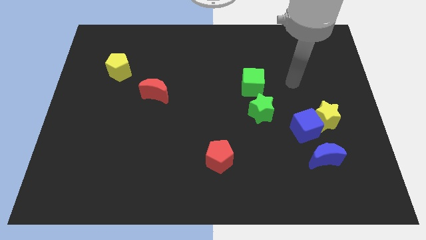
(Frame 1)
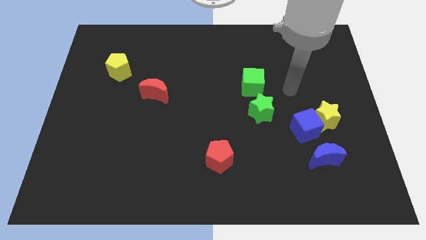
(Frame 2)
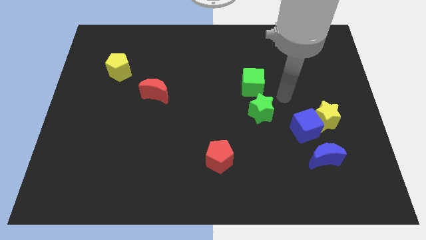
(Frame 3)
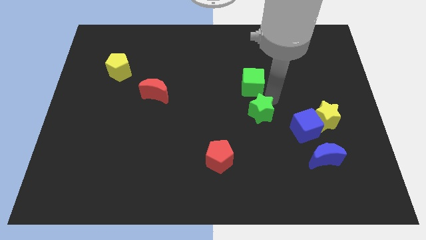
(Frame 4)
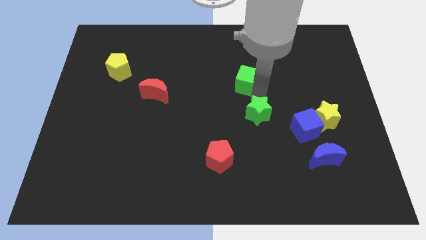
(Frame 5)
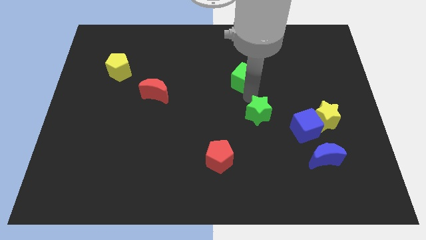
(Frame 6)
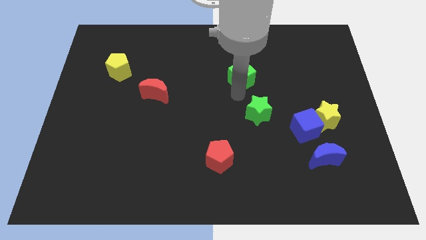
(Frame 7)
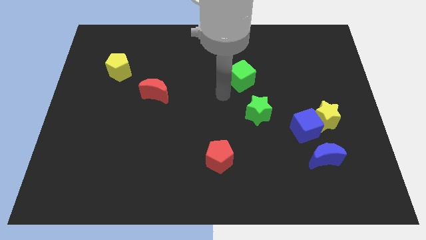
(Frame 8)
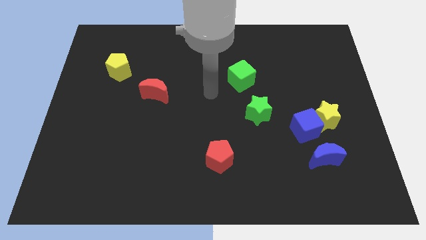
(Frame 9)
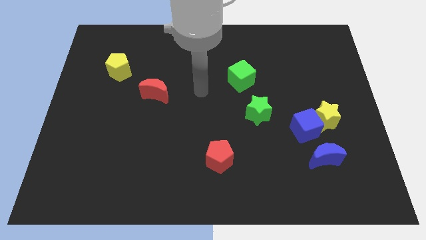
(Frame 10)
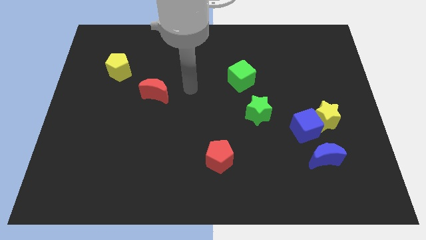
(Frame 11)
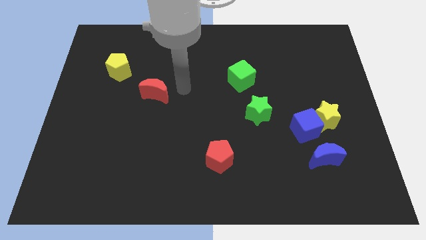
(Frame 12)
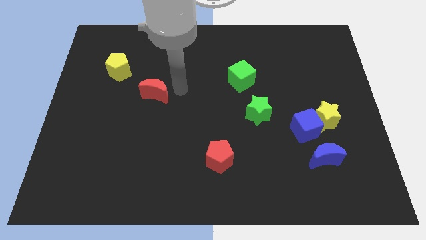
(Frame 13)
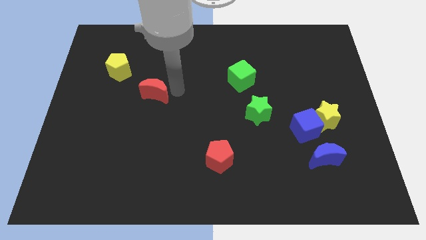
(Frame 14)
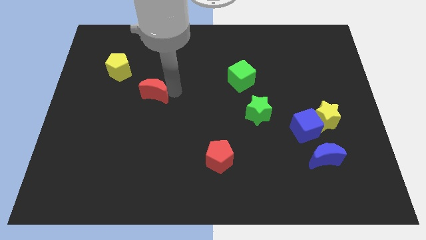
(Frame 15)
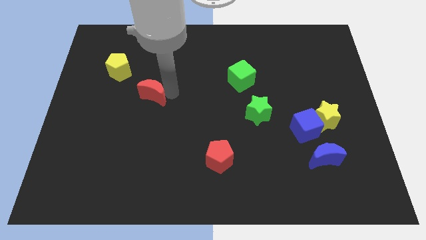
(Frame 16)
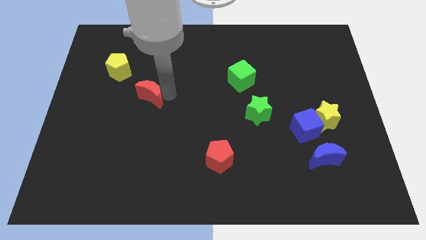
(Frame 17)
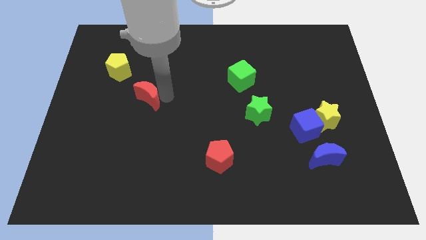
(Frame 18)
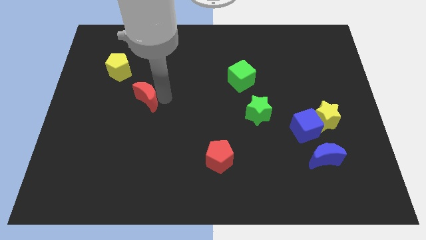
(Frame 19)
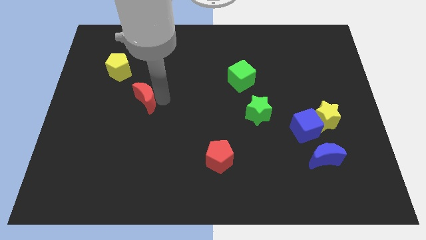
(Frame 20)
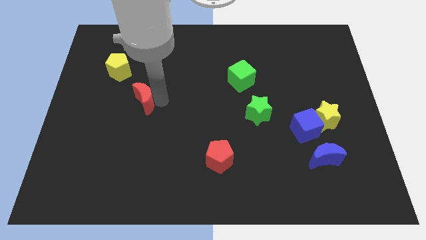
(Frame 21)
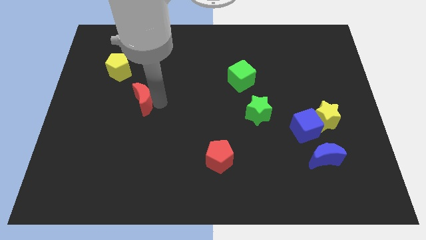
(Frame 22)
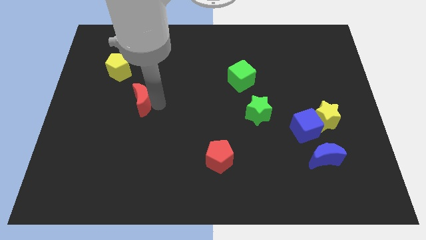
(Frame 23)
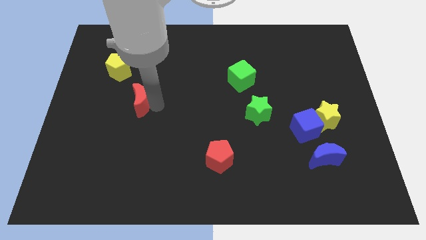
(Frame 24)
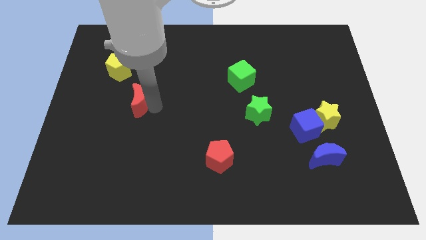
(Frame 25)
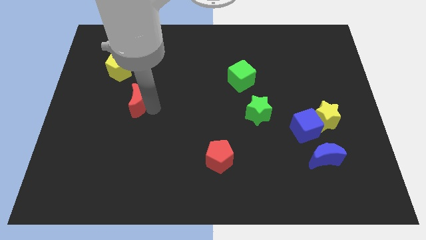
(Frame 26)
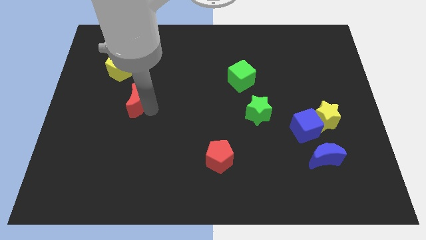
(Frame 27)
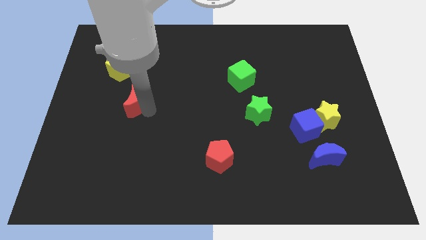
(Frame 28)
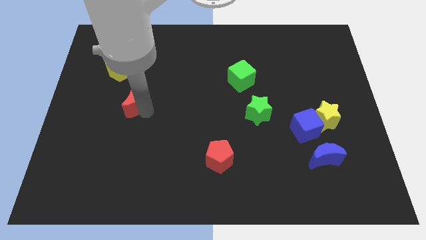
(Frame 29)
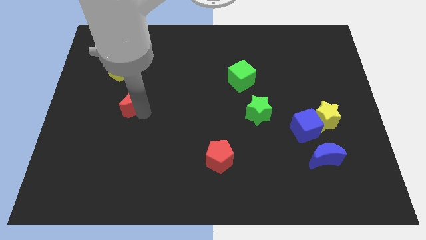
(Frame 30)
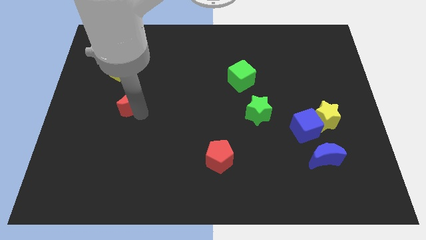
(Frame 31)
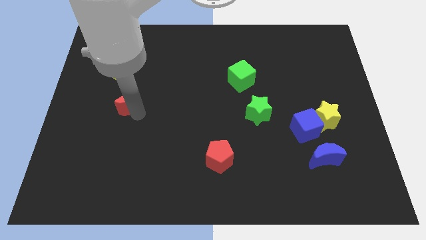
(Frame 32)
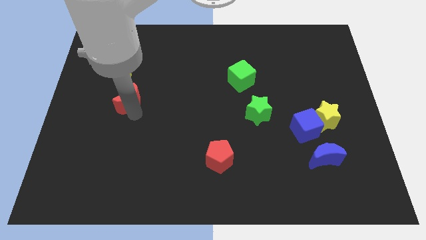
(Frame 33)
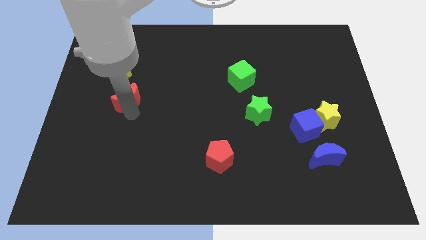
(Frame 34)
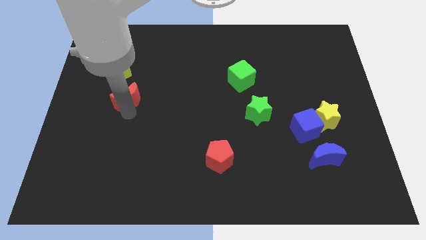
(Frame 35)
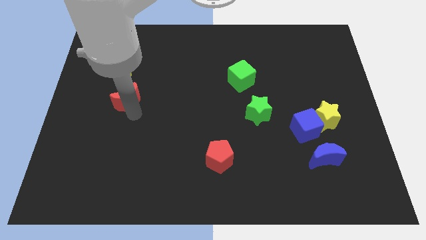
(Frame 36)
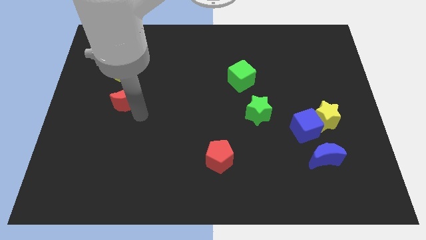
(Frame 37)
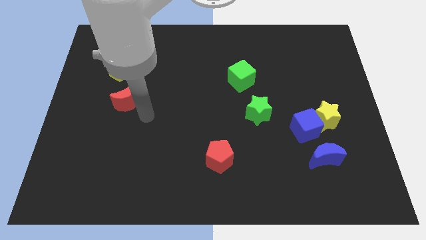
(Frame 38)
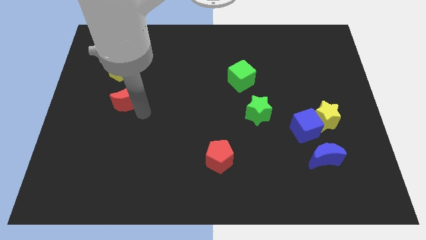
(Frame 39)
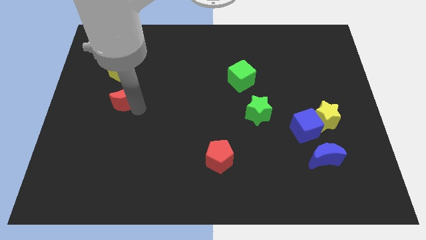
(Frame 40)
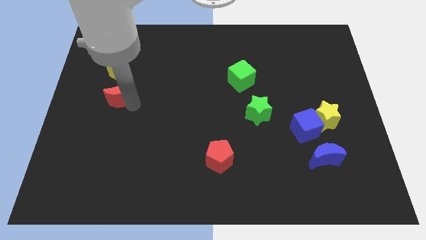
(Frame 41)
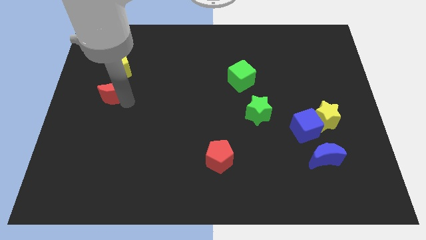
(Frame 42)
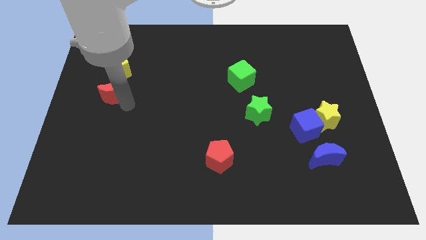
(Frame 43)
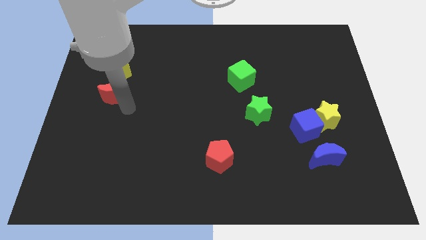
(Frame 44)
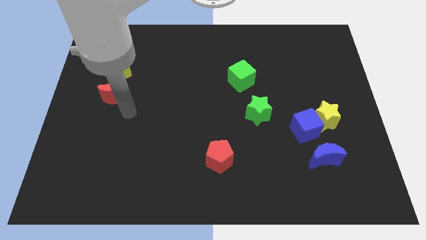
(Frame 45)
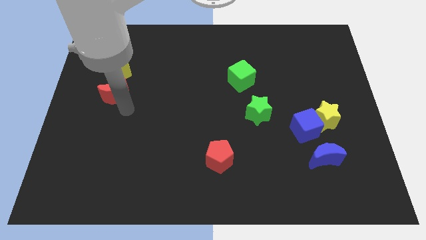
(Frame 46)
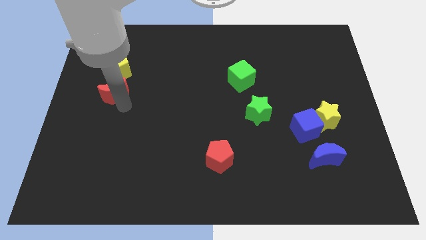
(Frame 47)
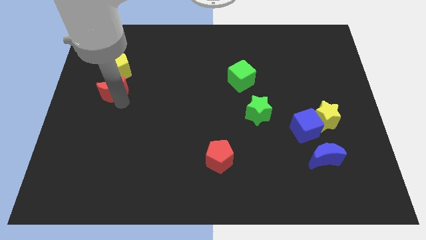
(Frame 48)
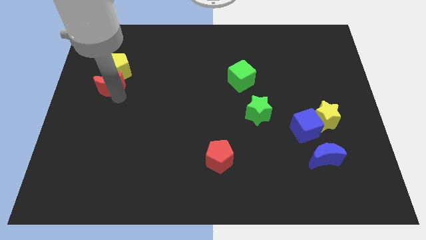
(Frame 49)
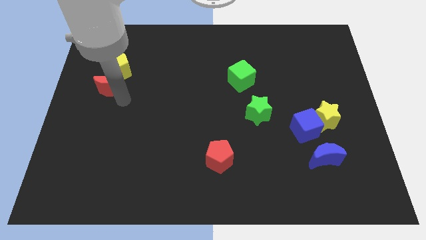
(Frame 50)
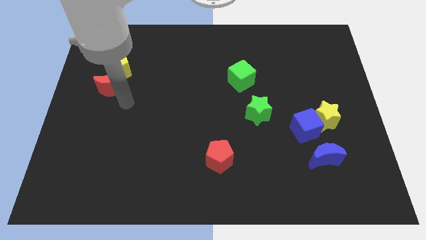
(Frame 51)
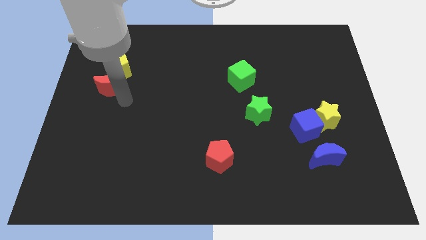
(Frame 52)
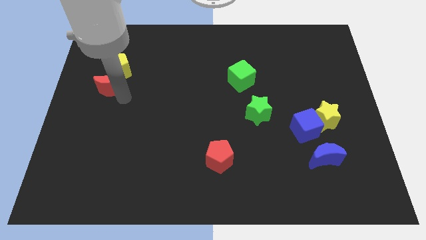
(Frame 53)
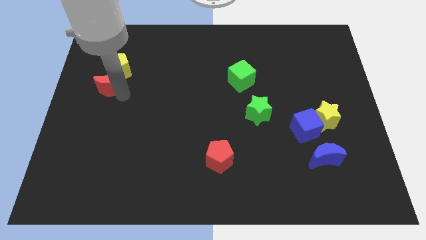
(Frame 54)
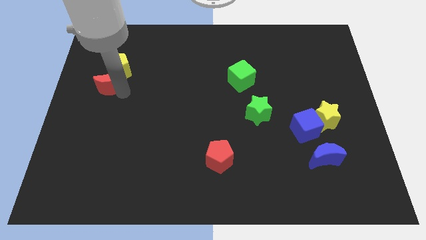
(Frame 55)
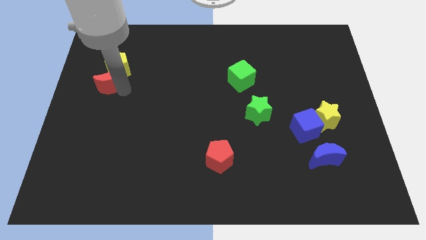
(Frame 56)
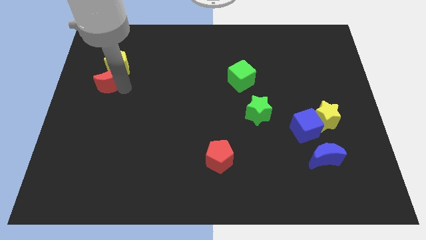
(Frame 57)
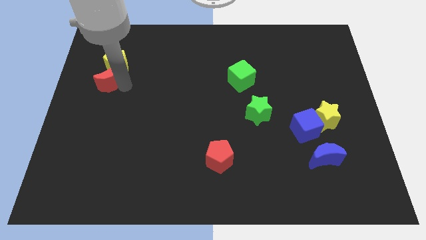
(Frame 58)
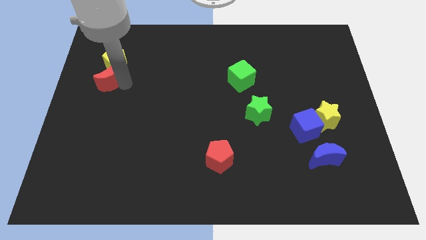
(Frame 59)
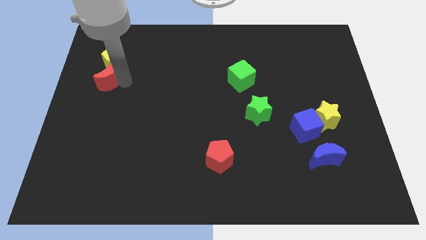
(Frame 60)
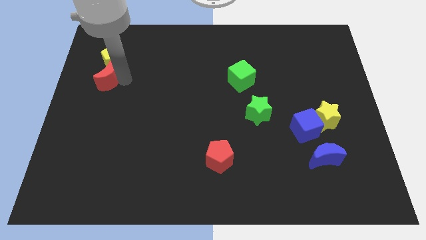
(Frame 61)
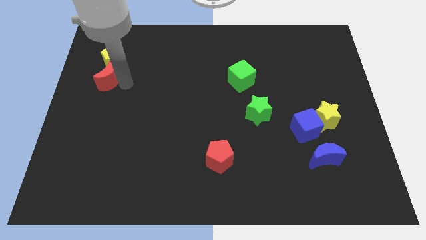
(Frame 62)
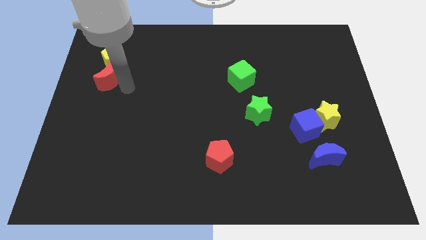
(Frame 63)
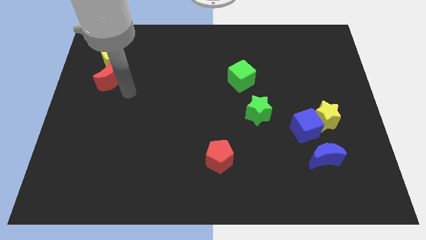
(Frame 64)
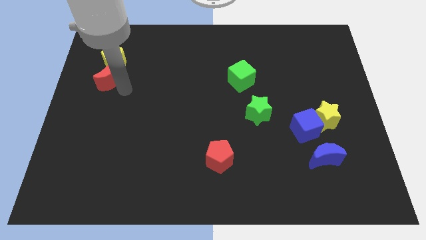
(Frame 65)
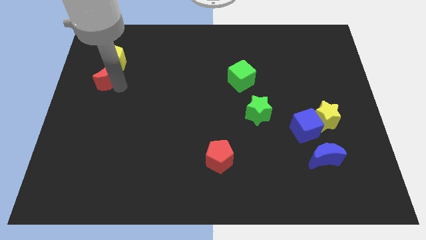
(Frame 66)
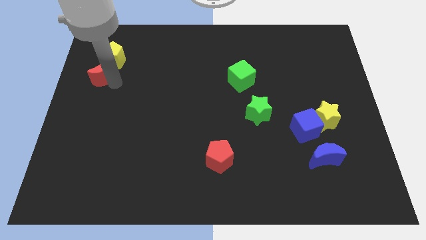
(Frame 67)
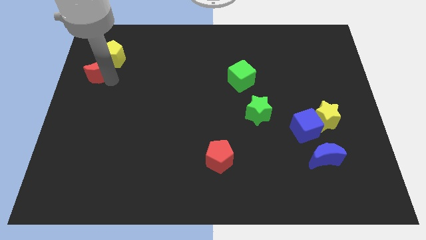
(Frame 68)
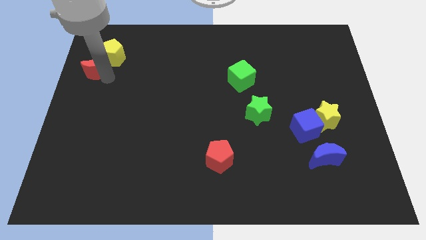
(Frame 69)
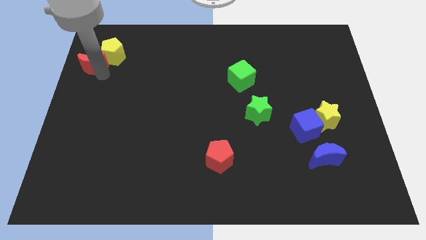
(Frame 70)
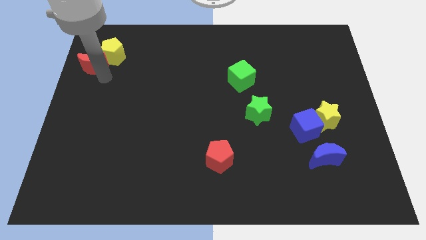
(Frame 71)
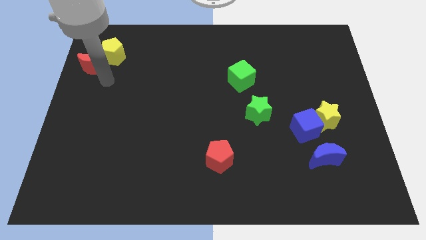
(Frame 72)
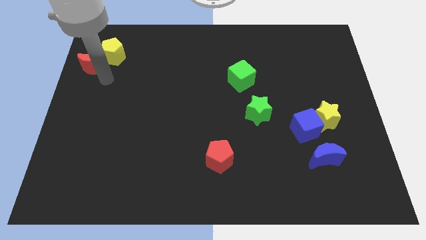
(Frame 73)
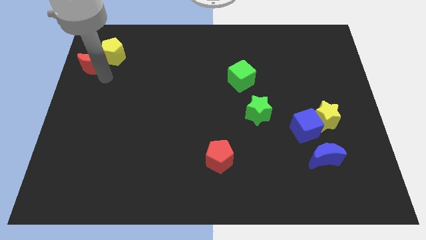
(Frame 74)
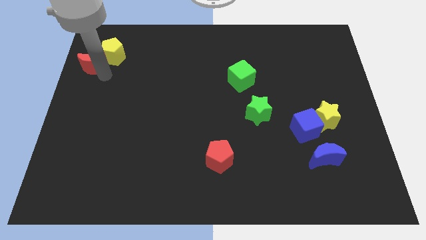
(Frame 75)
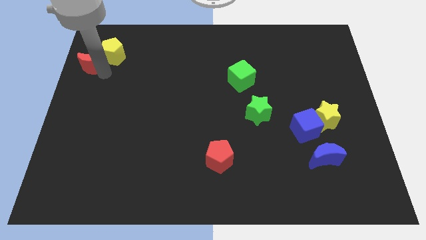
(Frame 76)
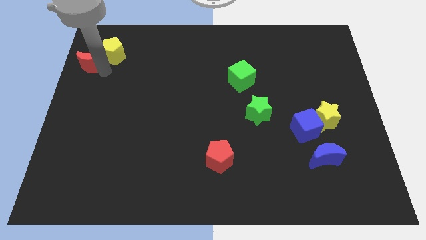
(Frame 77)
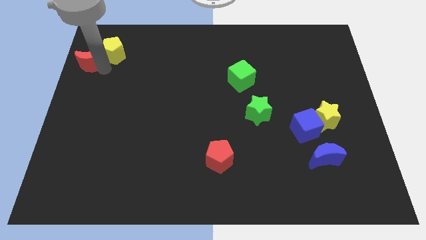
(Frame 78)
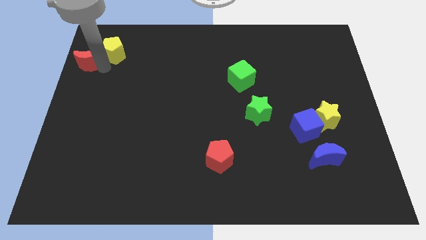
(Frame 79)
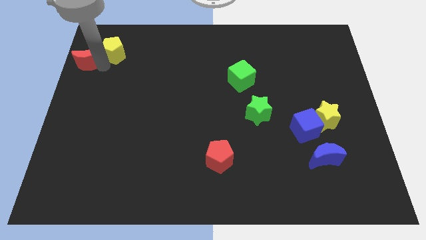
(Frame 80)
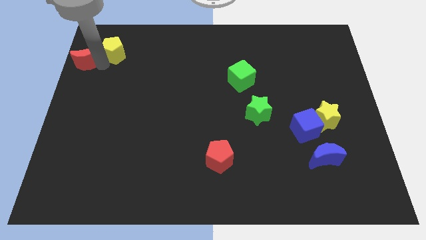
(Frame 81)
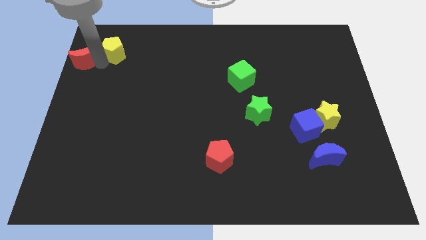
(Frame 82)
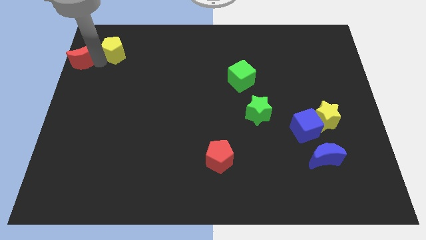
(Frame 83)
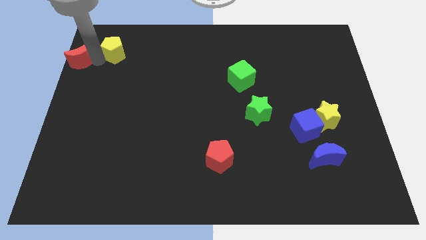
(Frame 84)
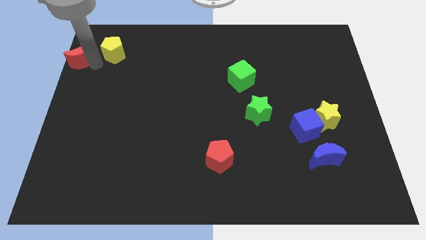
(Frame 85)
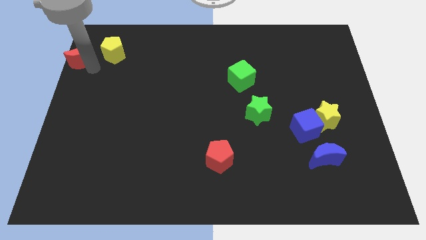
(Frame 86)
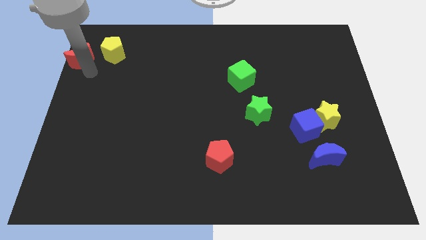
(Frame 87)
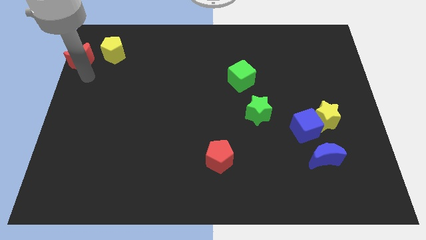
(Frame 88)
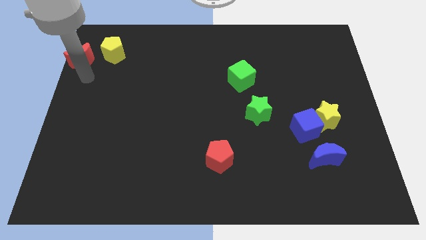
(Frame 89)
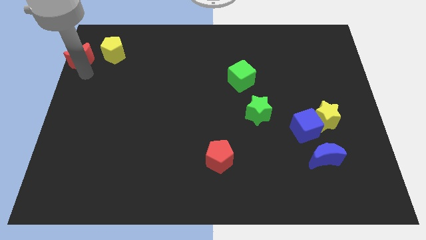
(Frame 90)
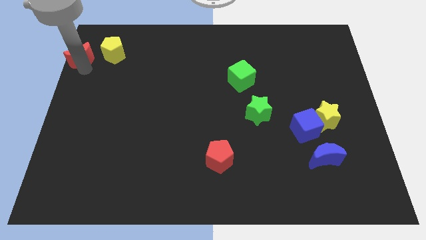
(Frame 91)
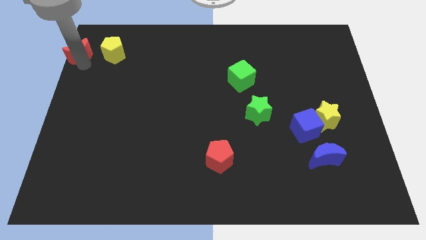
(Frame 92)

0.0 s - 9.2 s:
move the red moon to the top left
